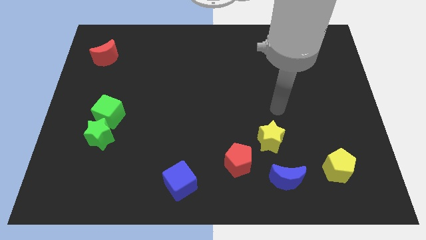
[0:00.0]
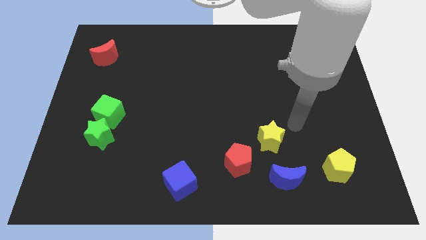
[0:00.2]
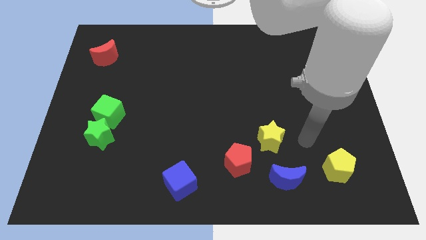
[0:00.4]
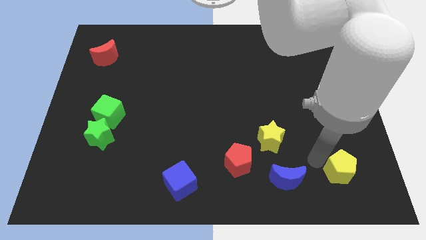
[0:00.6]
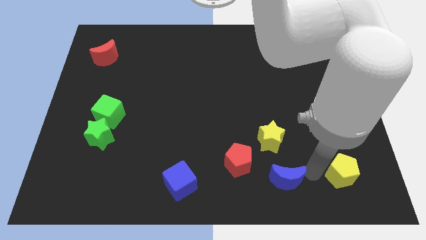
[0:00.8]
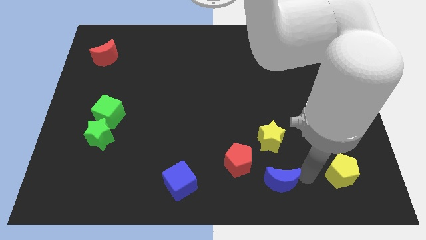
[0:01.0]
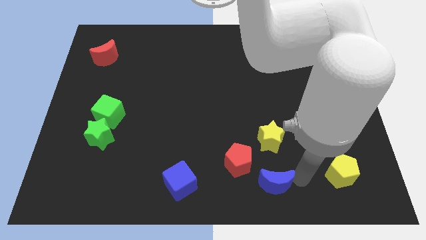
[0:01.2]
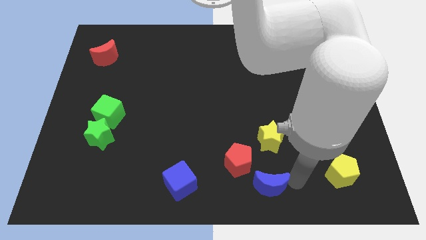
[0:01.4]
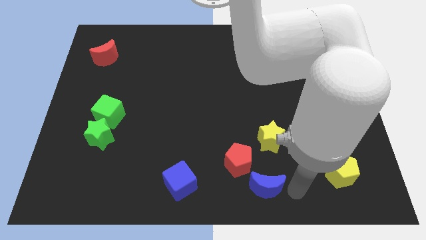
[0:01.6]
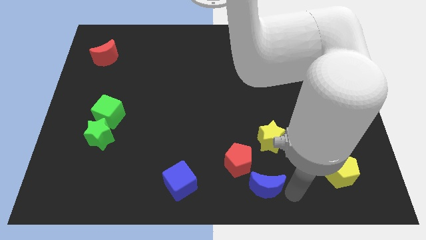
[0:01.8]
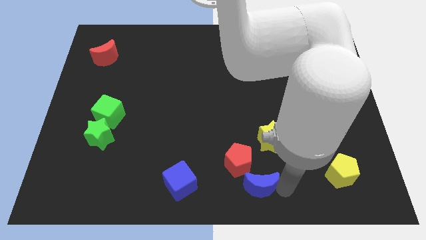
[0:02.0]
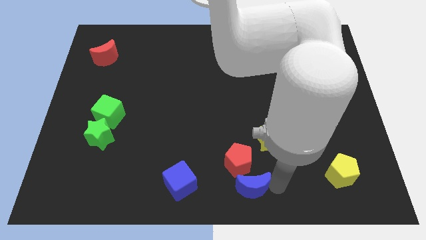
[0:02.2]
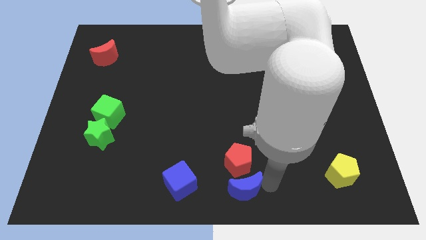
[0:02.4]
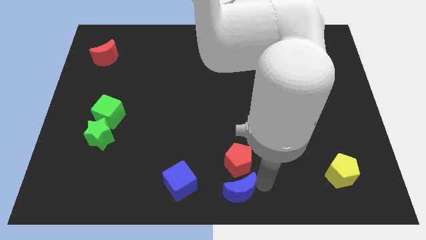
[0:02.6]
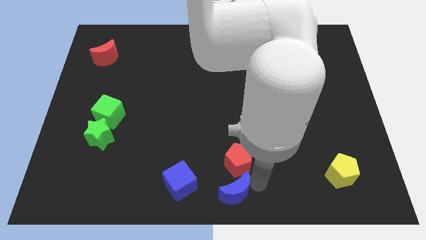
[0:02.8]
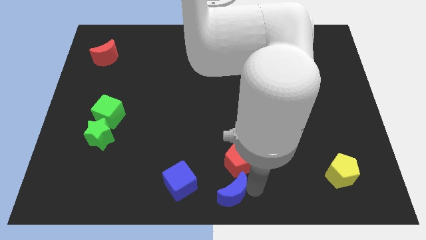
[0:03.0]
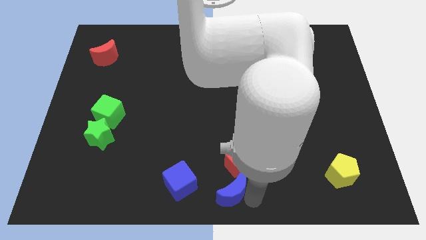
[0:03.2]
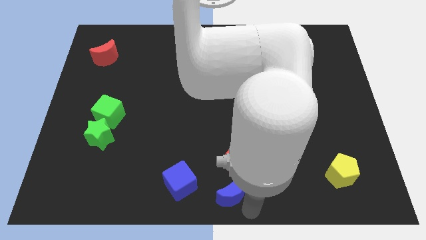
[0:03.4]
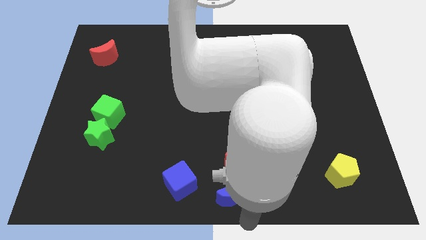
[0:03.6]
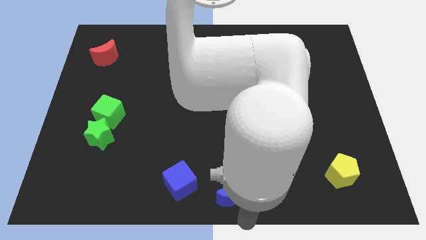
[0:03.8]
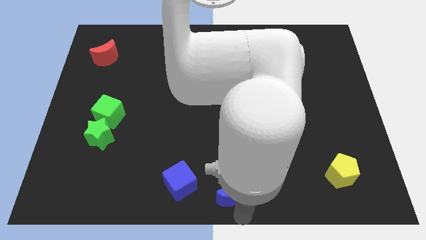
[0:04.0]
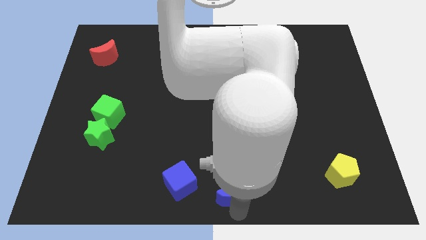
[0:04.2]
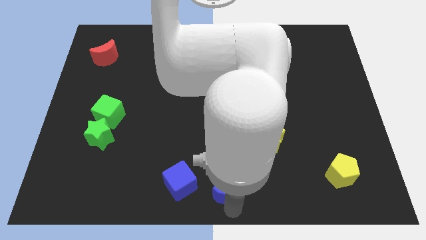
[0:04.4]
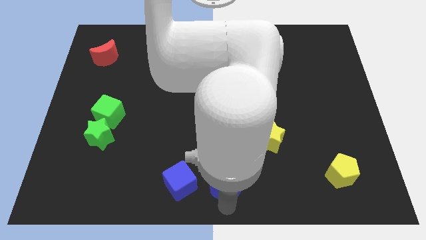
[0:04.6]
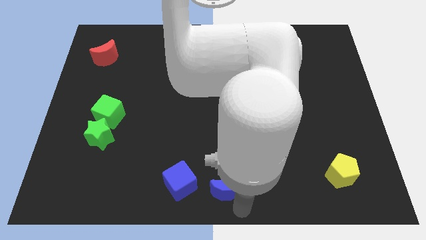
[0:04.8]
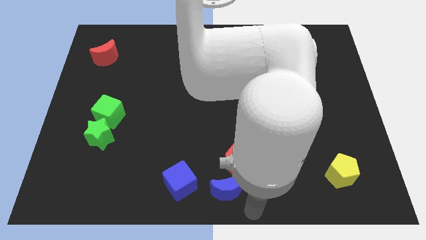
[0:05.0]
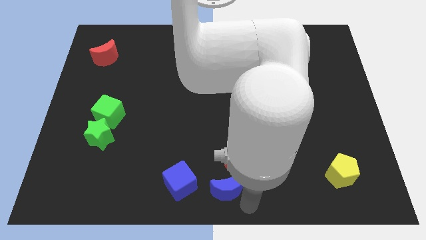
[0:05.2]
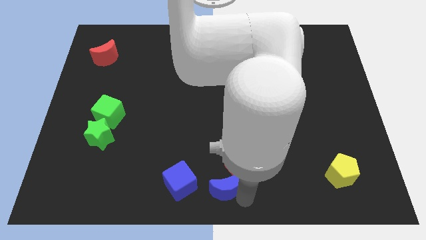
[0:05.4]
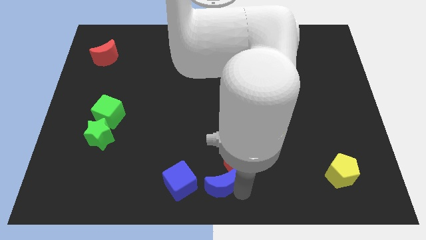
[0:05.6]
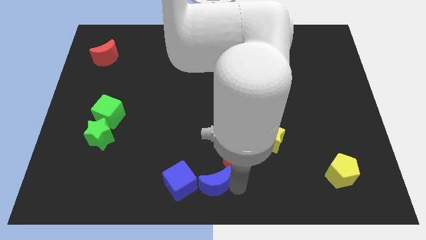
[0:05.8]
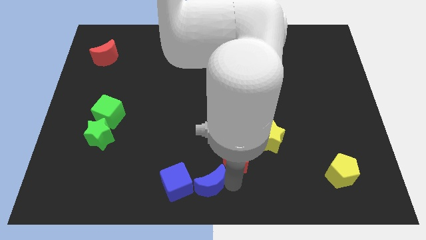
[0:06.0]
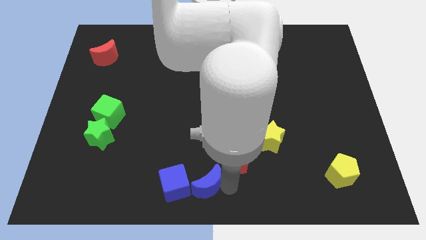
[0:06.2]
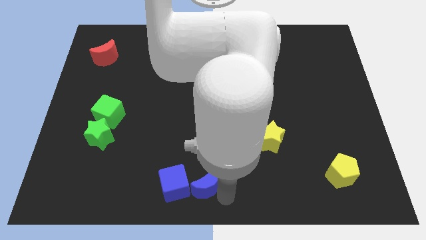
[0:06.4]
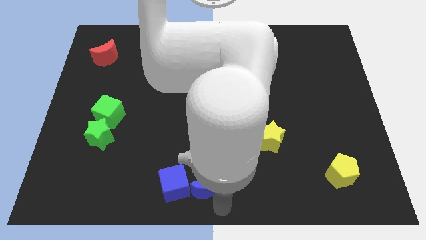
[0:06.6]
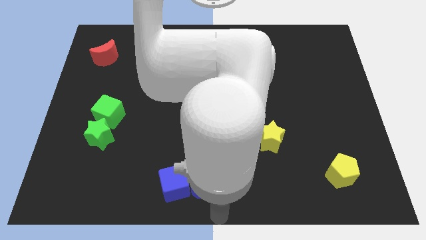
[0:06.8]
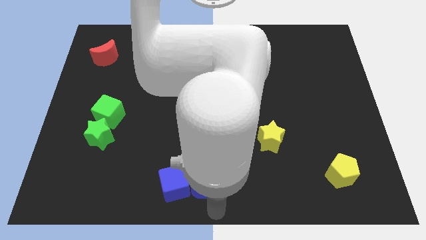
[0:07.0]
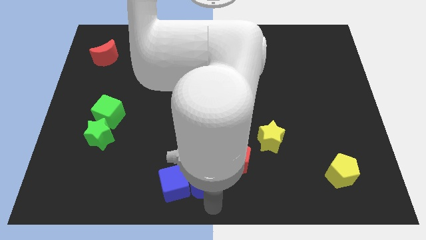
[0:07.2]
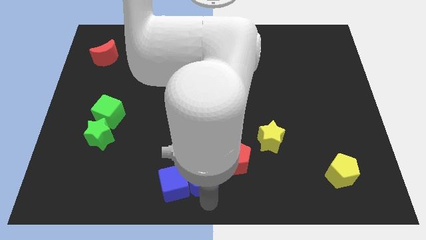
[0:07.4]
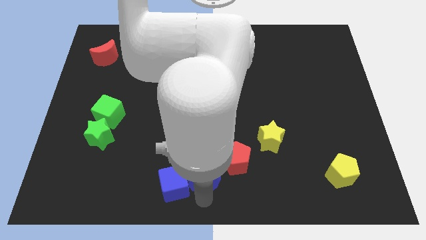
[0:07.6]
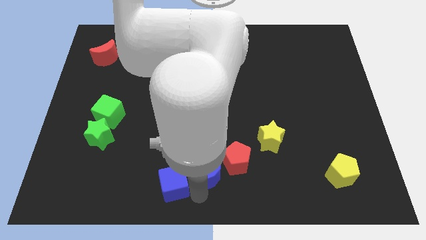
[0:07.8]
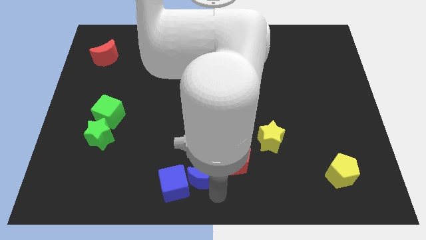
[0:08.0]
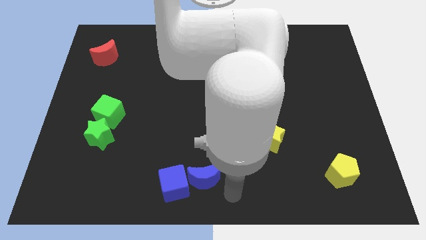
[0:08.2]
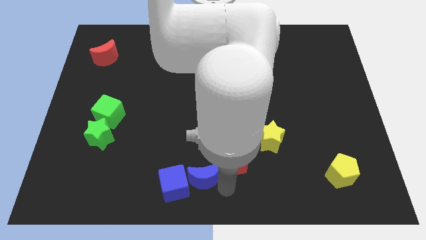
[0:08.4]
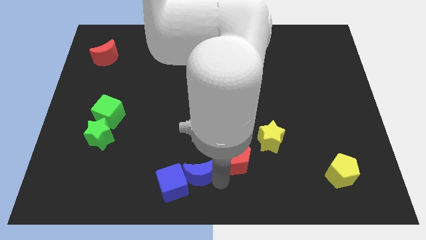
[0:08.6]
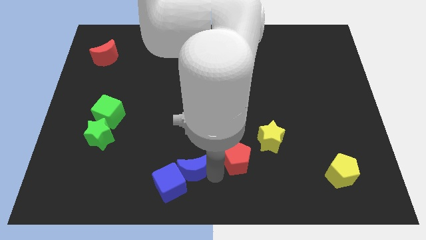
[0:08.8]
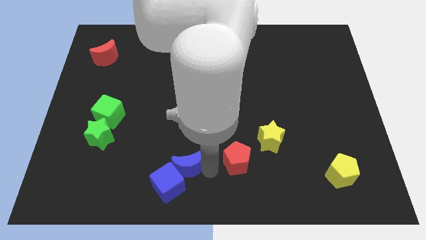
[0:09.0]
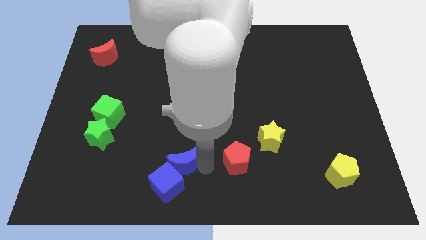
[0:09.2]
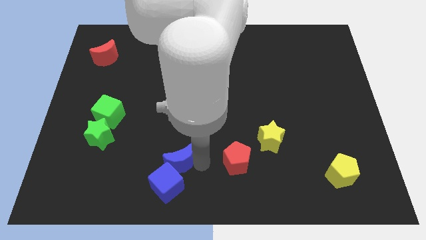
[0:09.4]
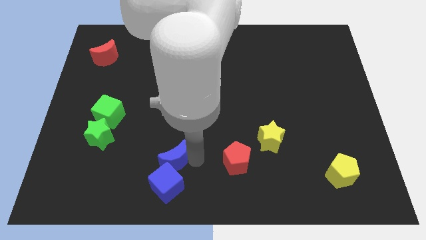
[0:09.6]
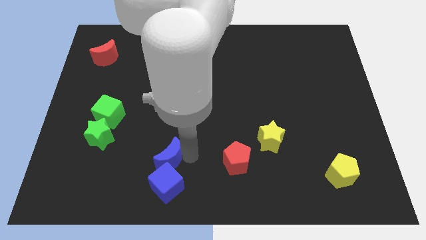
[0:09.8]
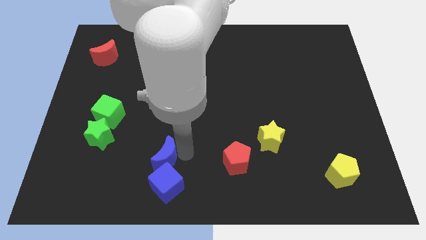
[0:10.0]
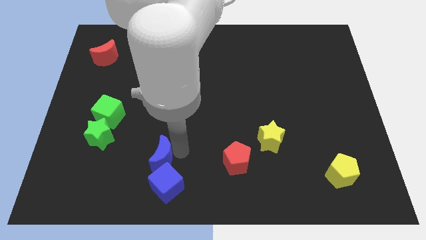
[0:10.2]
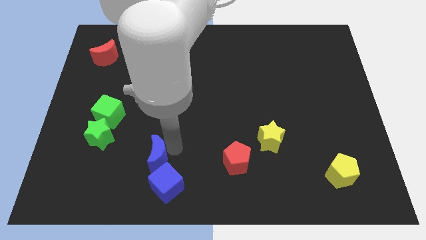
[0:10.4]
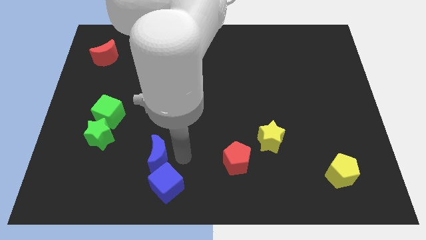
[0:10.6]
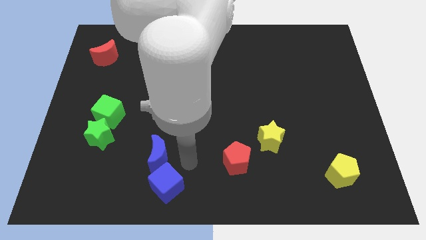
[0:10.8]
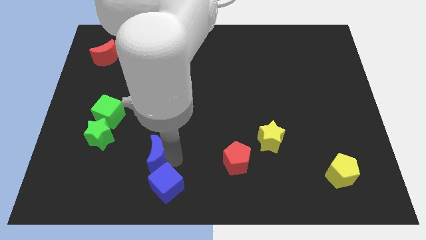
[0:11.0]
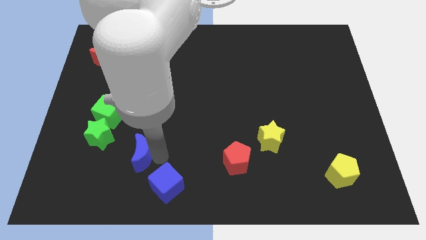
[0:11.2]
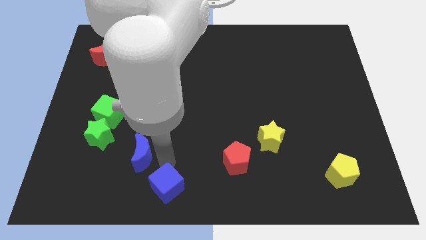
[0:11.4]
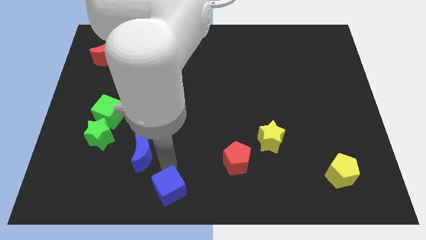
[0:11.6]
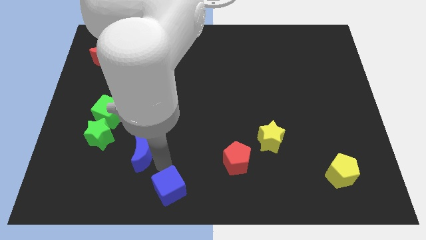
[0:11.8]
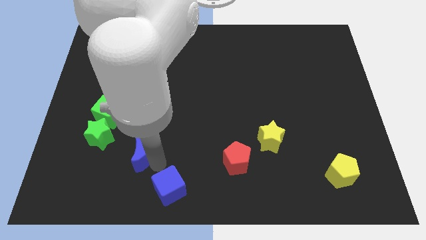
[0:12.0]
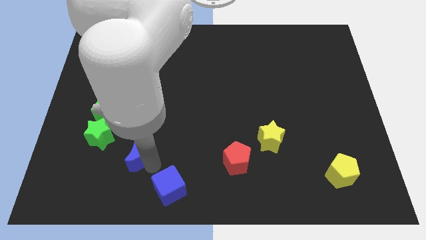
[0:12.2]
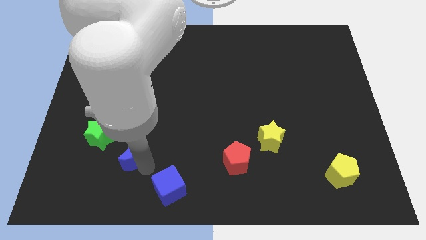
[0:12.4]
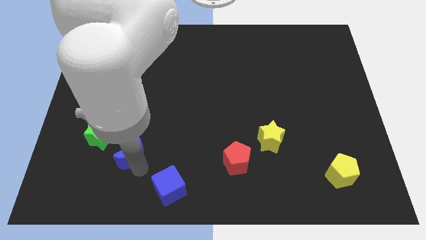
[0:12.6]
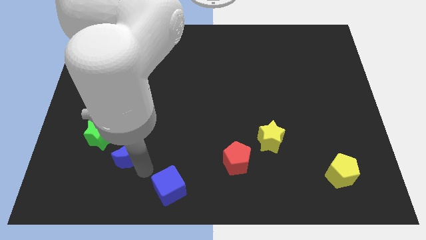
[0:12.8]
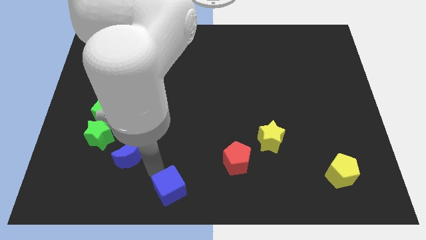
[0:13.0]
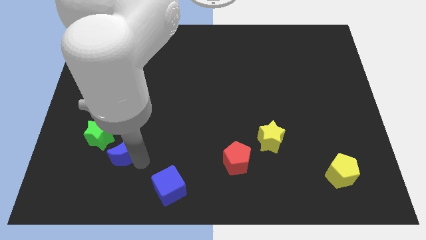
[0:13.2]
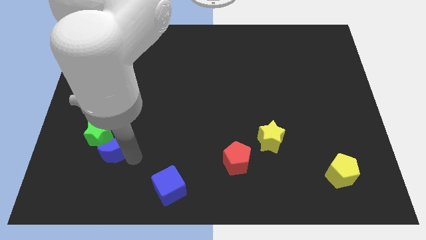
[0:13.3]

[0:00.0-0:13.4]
push the blue moon to the green star

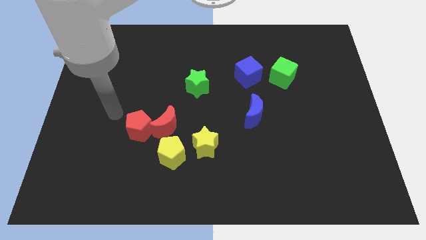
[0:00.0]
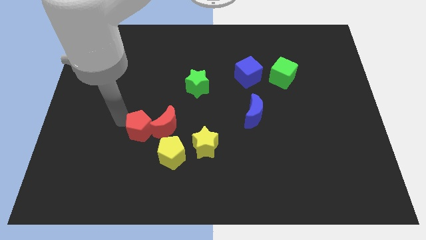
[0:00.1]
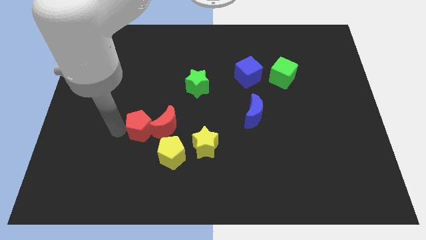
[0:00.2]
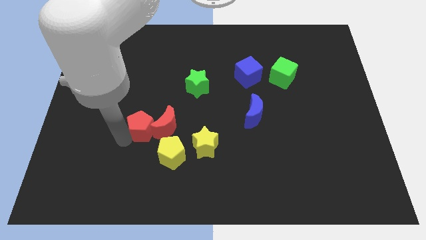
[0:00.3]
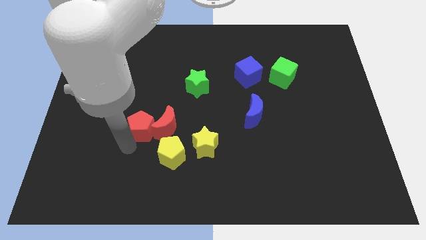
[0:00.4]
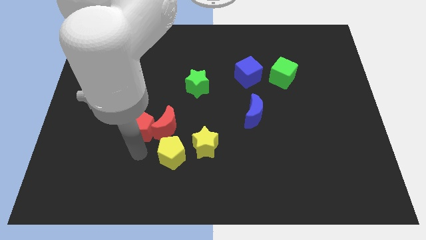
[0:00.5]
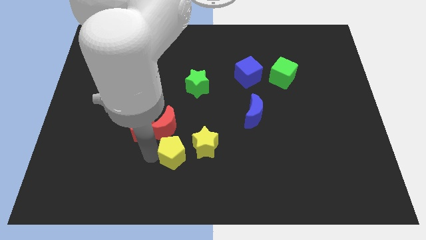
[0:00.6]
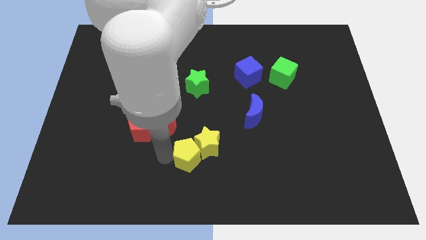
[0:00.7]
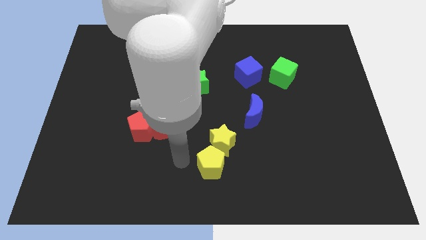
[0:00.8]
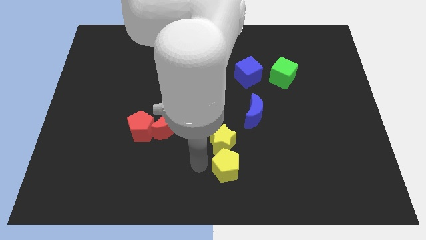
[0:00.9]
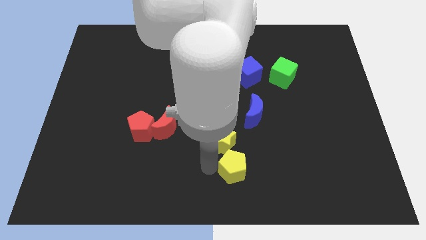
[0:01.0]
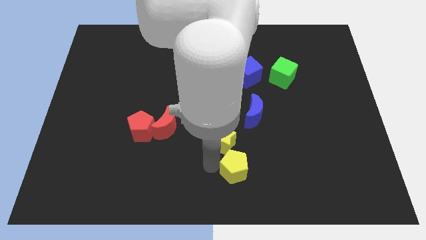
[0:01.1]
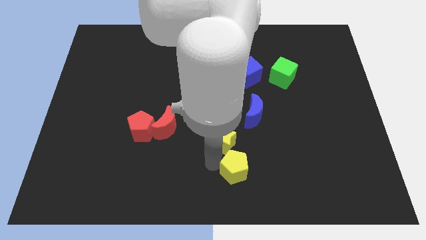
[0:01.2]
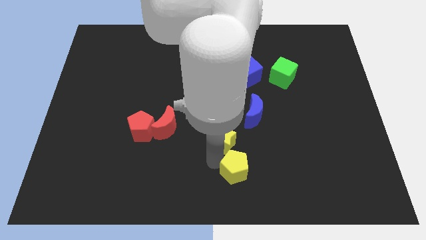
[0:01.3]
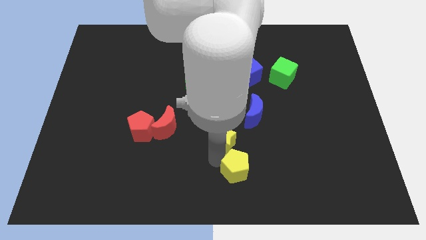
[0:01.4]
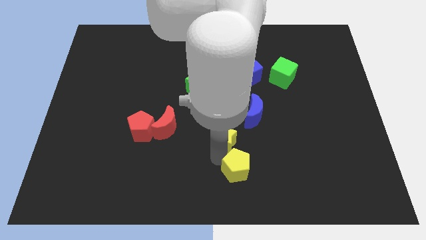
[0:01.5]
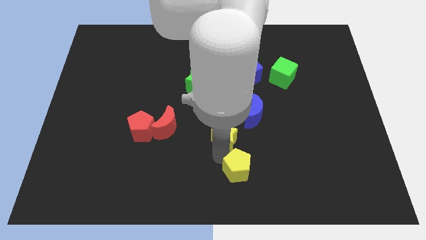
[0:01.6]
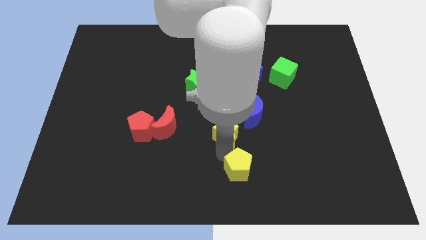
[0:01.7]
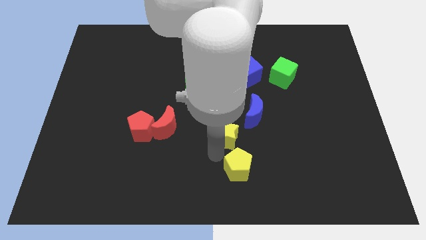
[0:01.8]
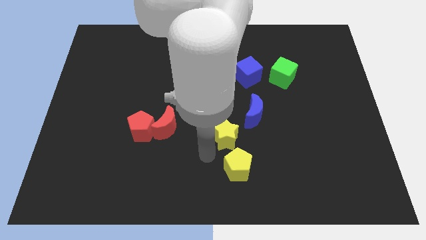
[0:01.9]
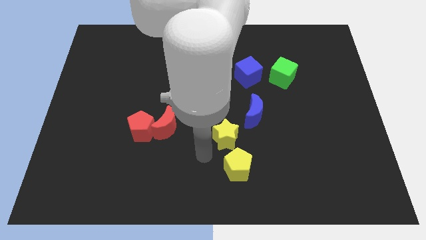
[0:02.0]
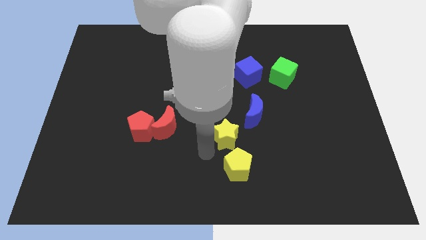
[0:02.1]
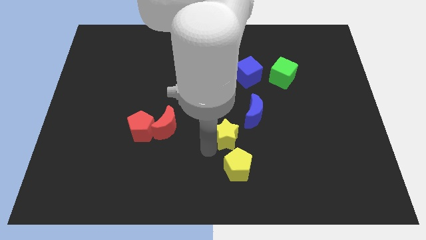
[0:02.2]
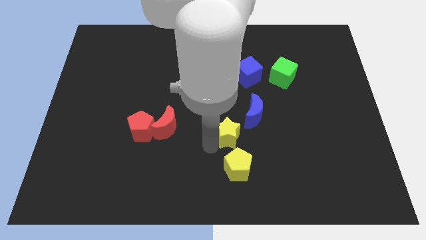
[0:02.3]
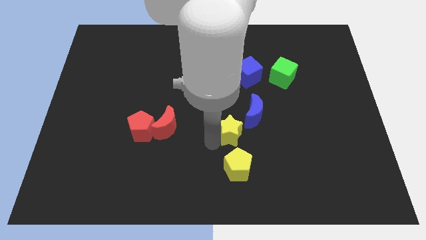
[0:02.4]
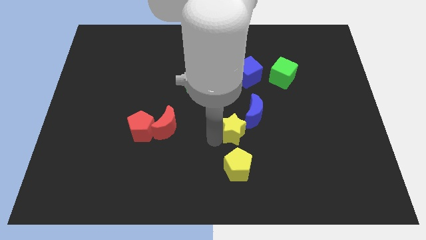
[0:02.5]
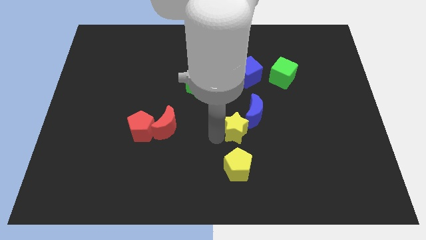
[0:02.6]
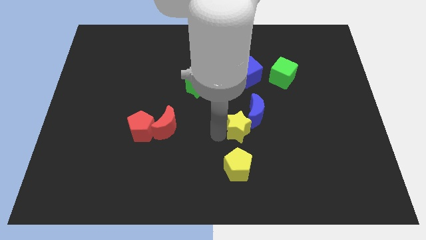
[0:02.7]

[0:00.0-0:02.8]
push the yellow star next to the blue moon
